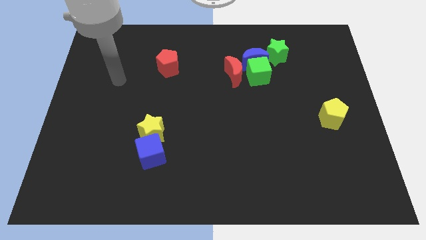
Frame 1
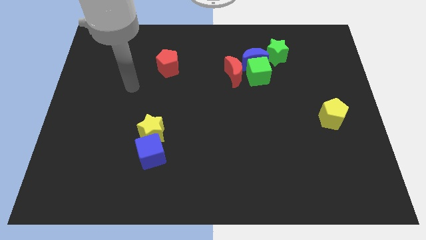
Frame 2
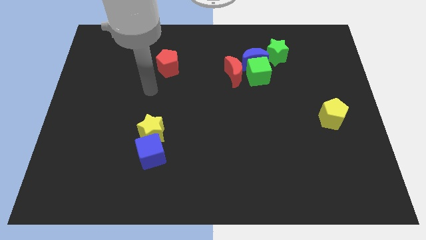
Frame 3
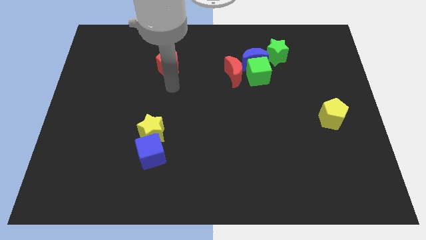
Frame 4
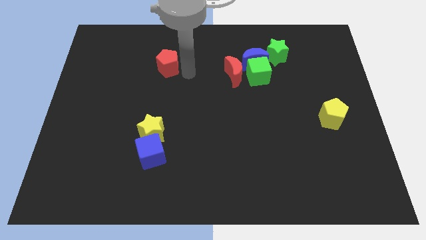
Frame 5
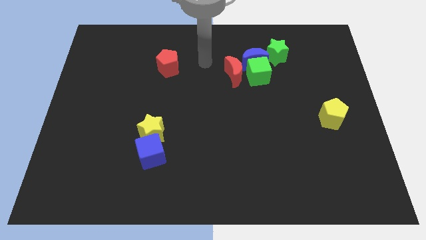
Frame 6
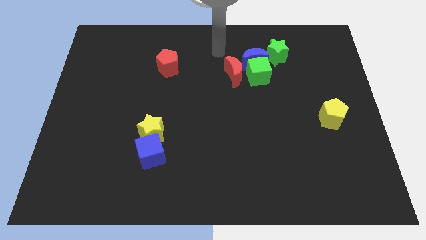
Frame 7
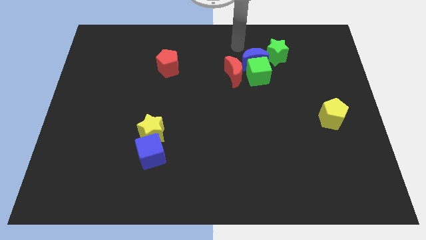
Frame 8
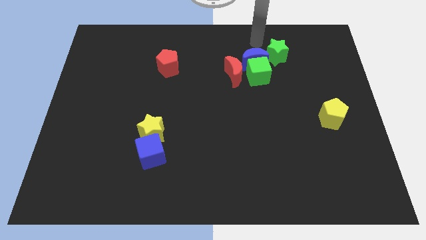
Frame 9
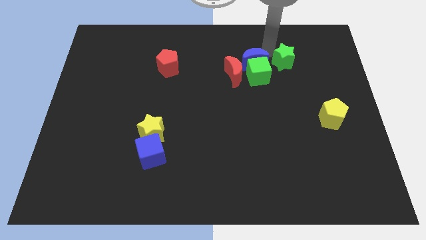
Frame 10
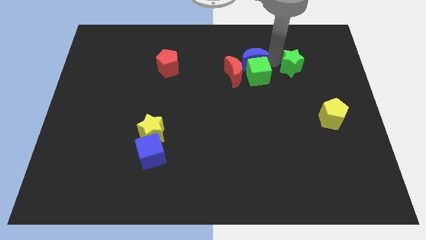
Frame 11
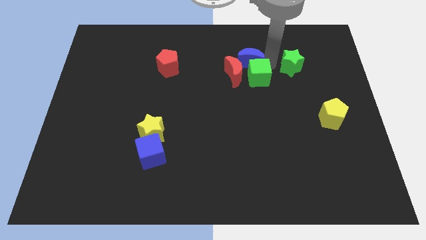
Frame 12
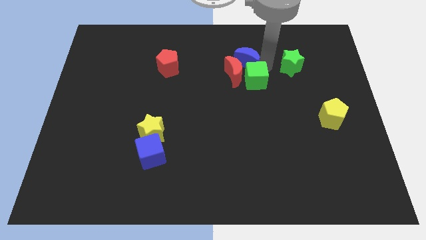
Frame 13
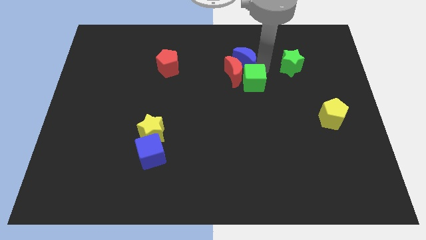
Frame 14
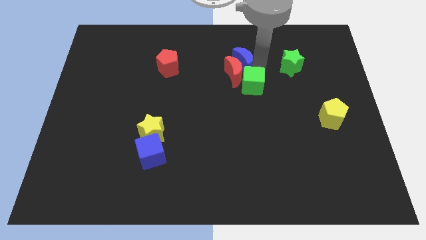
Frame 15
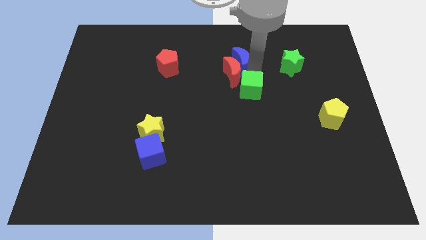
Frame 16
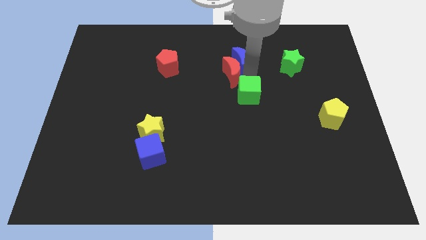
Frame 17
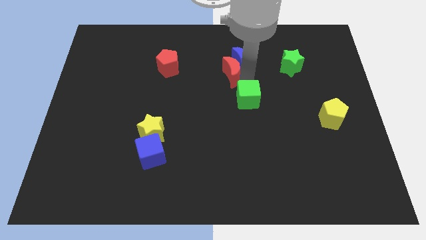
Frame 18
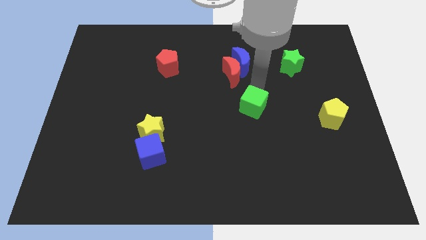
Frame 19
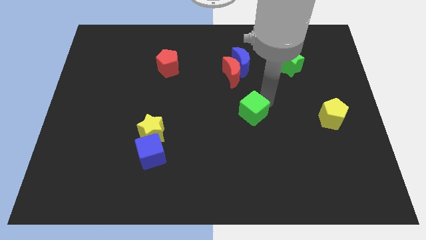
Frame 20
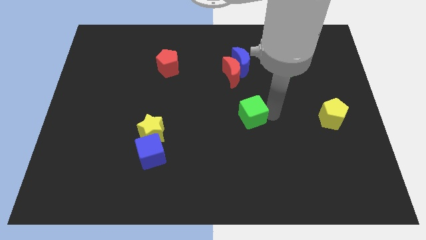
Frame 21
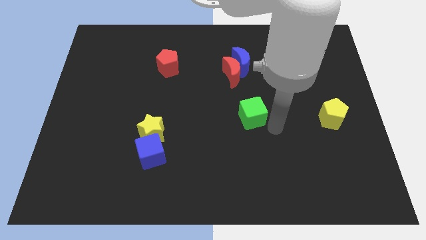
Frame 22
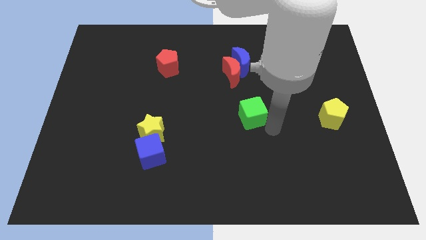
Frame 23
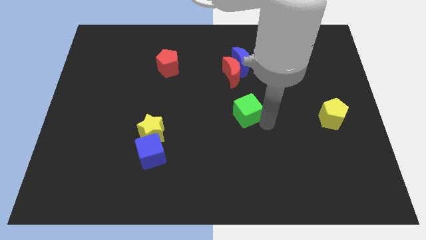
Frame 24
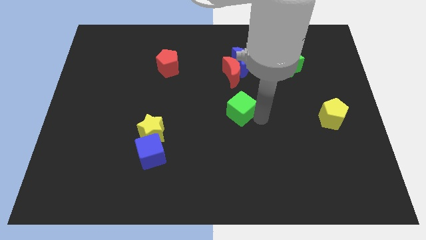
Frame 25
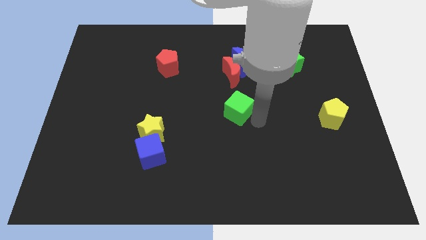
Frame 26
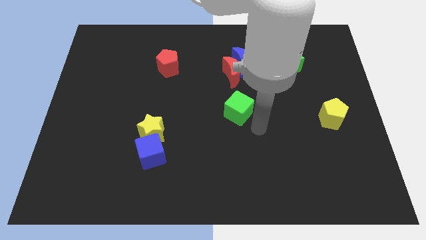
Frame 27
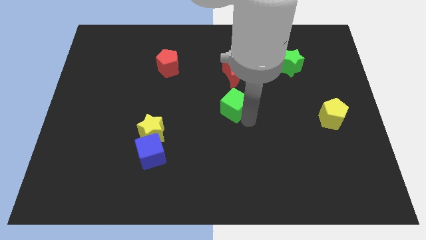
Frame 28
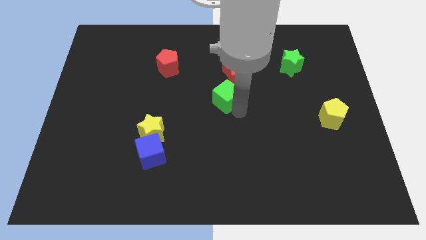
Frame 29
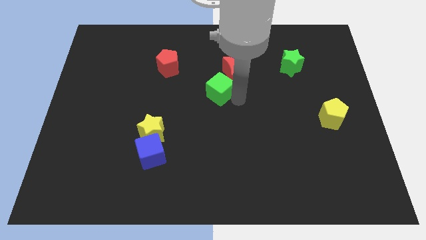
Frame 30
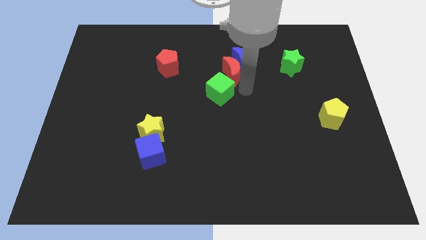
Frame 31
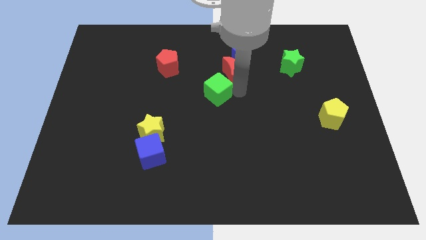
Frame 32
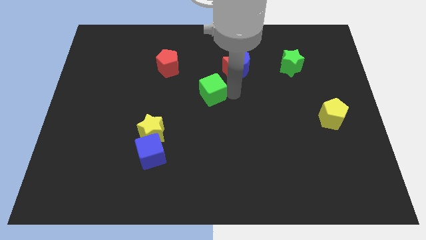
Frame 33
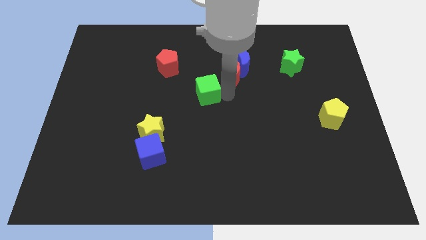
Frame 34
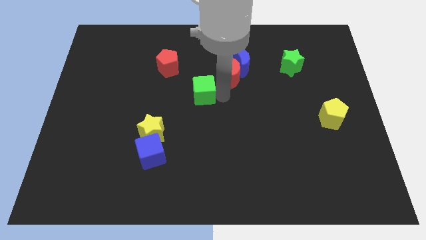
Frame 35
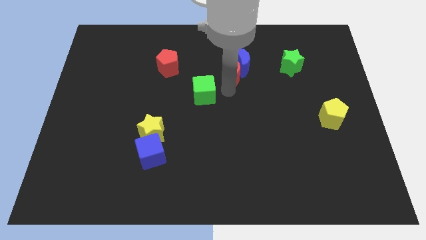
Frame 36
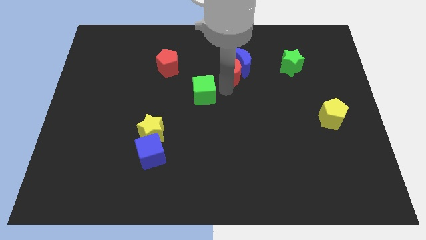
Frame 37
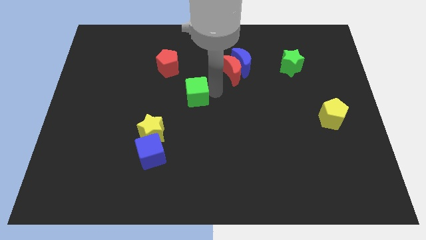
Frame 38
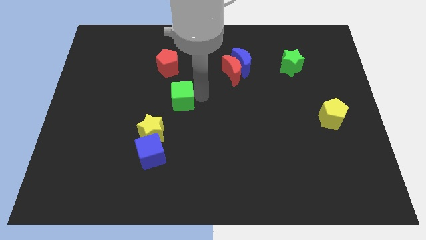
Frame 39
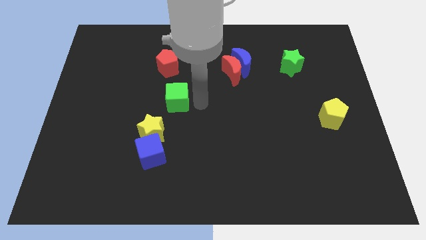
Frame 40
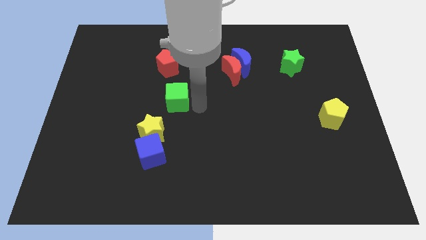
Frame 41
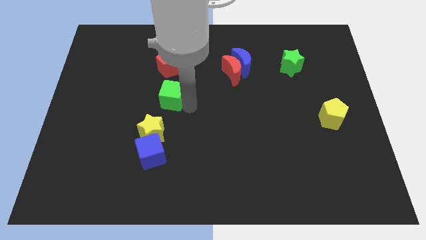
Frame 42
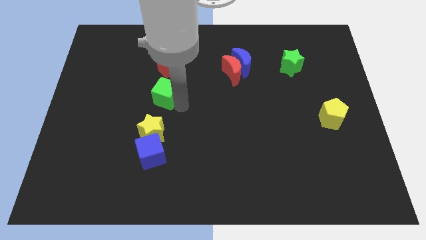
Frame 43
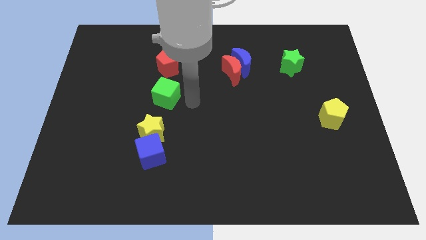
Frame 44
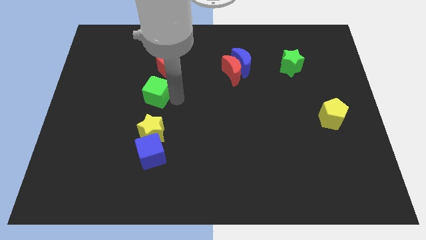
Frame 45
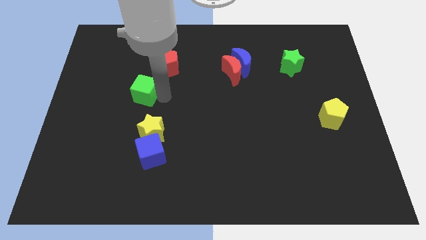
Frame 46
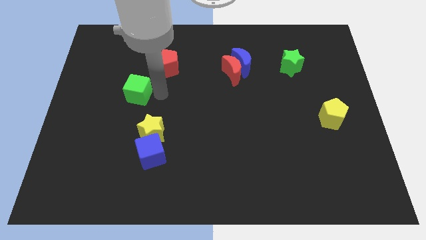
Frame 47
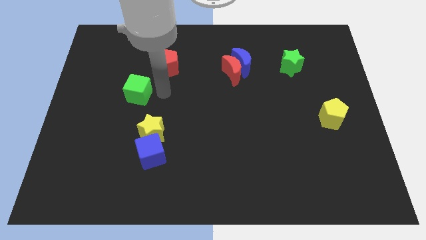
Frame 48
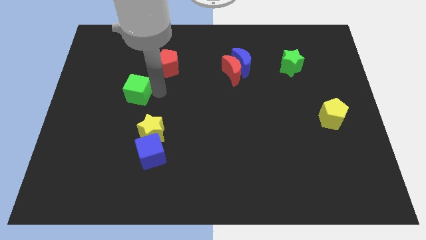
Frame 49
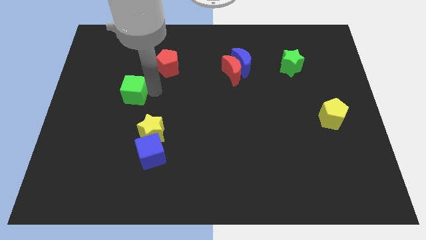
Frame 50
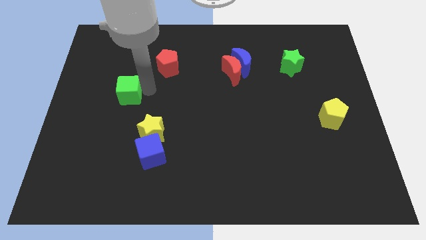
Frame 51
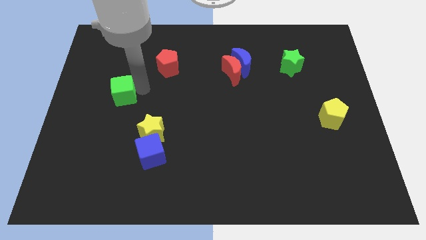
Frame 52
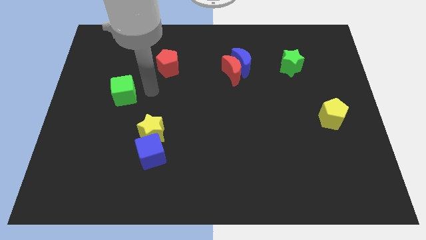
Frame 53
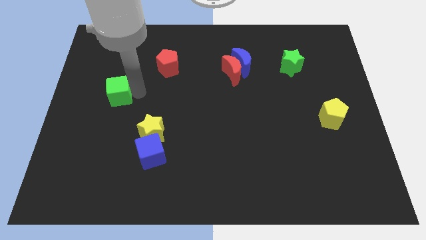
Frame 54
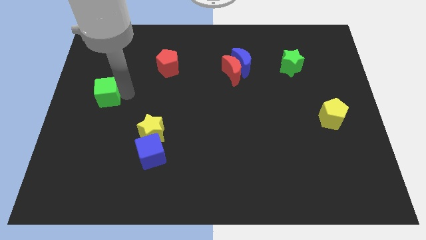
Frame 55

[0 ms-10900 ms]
move the green cube to the center left

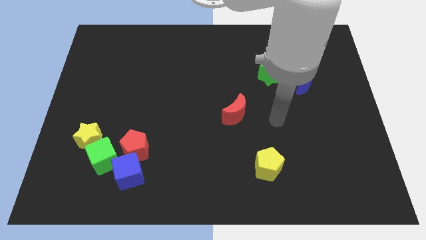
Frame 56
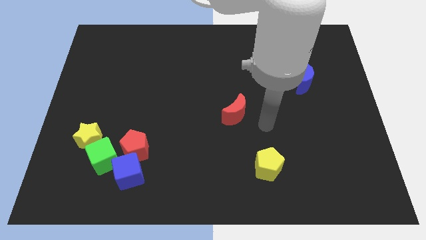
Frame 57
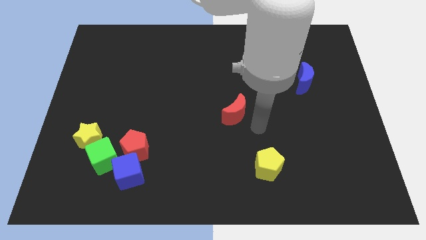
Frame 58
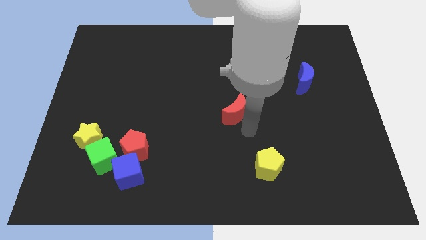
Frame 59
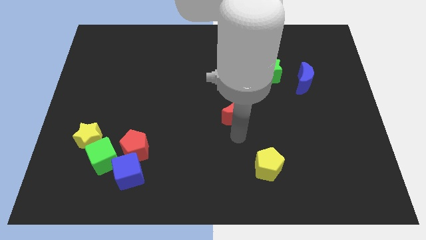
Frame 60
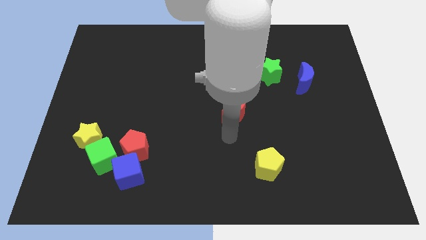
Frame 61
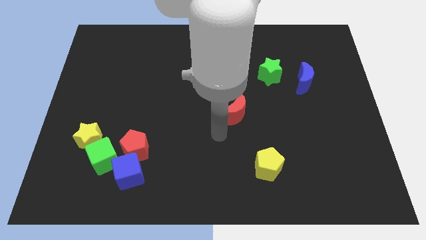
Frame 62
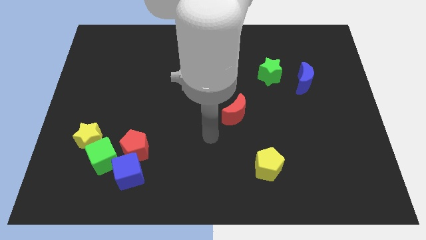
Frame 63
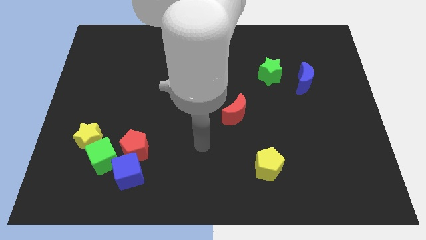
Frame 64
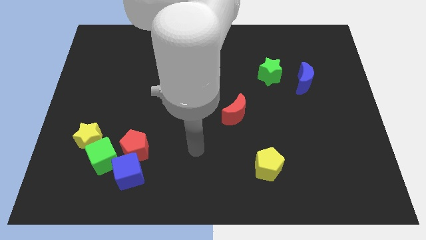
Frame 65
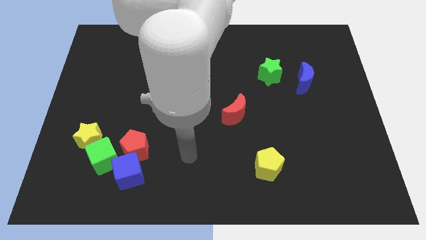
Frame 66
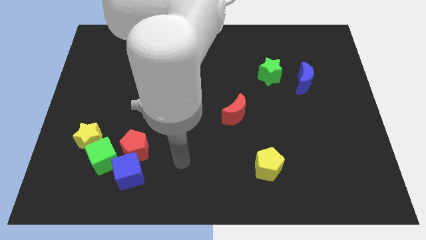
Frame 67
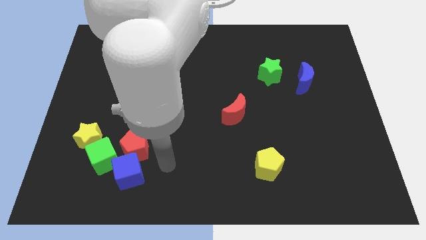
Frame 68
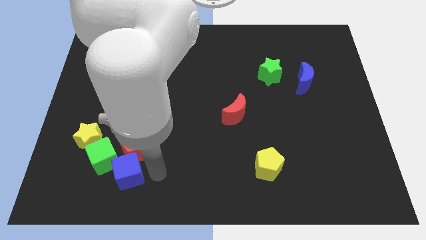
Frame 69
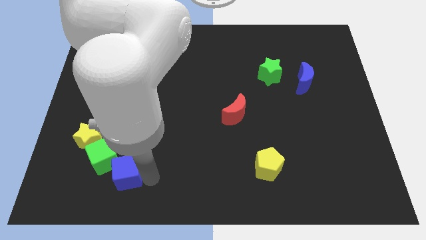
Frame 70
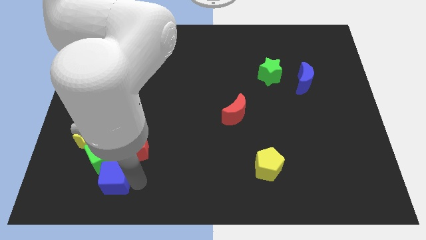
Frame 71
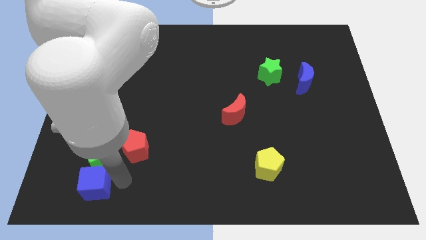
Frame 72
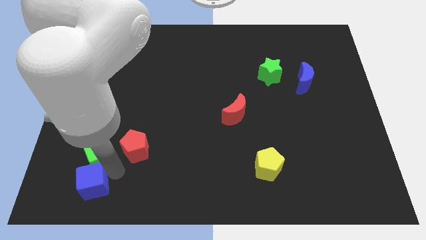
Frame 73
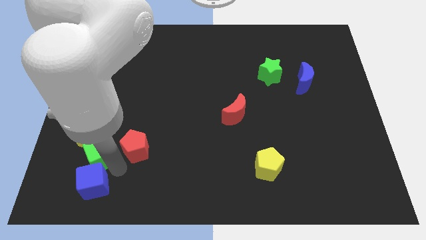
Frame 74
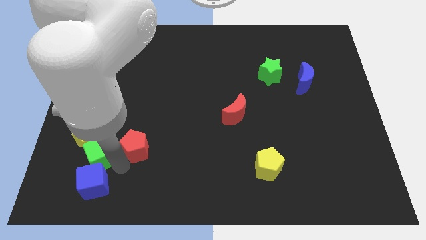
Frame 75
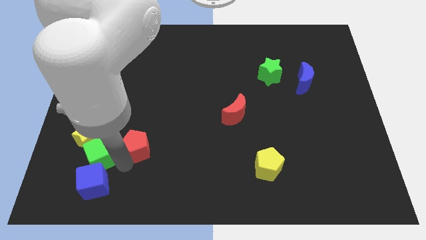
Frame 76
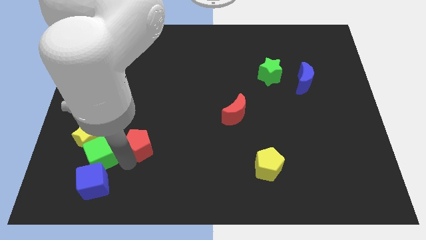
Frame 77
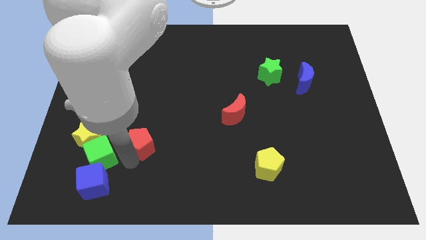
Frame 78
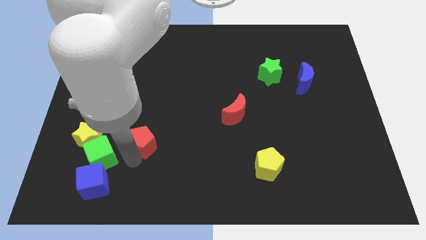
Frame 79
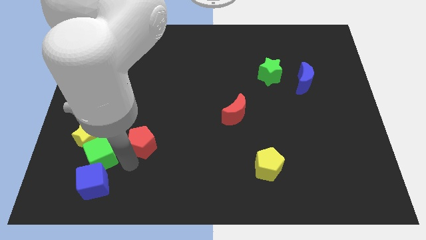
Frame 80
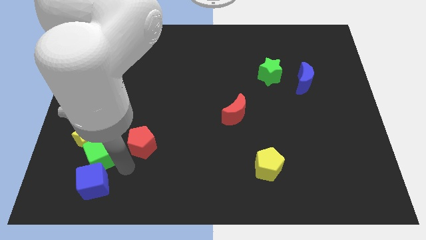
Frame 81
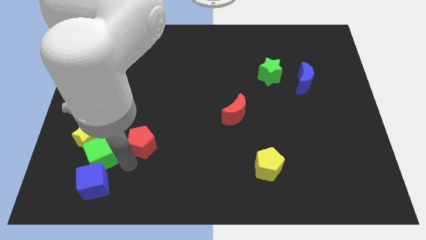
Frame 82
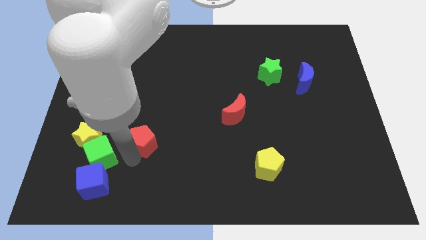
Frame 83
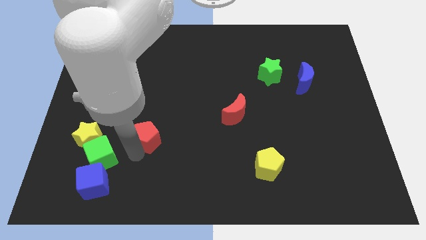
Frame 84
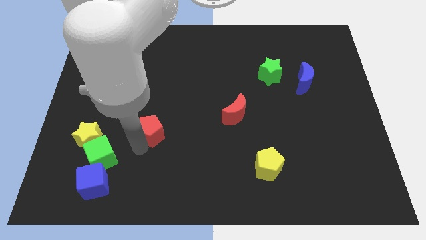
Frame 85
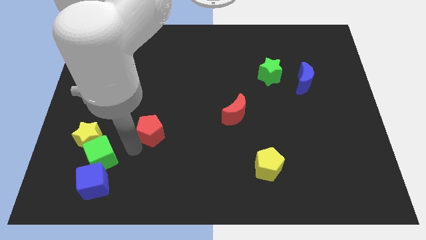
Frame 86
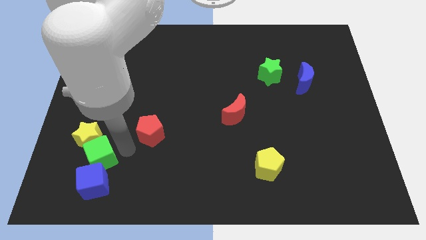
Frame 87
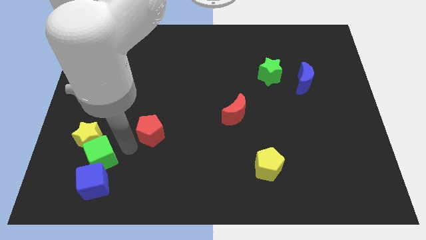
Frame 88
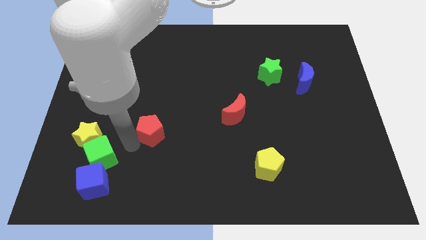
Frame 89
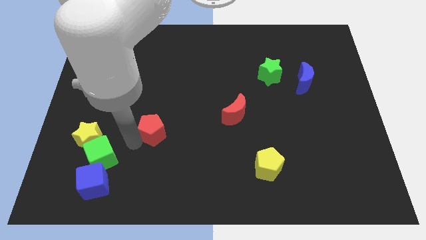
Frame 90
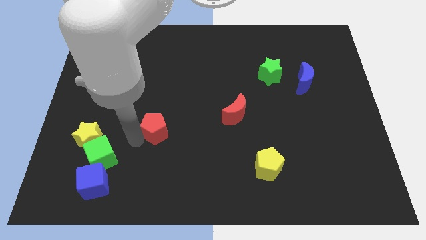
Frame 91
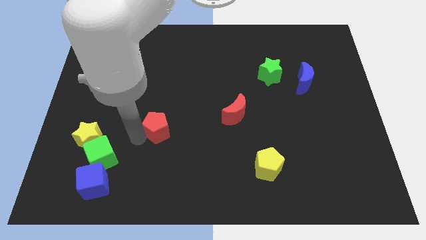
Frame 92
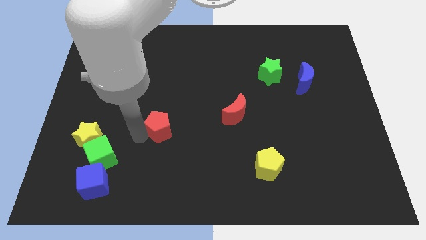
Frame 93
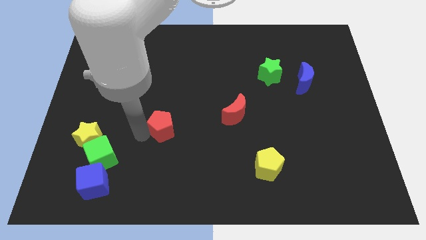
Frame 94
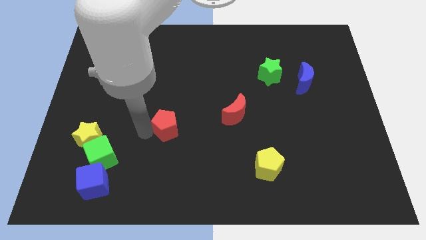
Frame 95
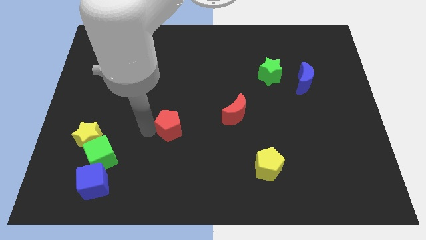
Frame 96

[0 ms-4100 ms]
put the red pentagon to the center
